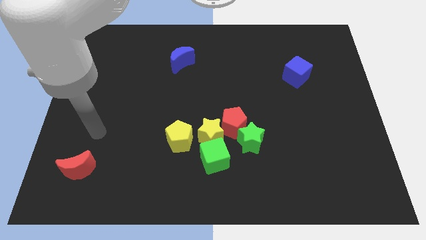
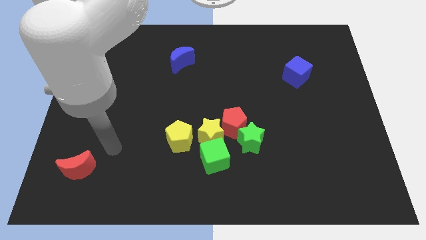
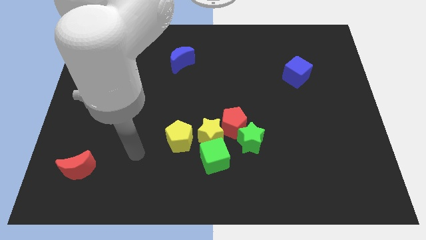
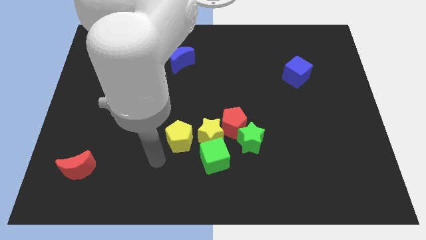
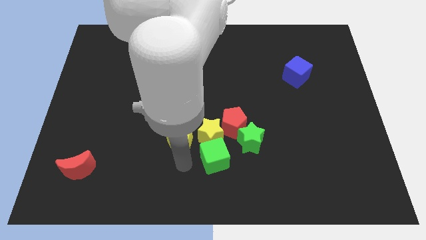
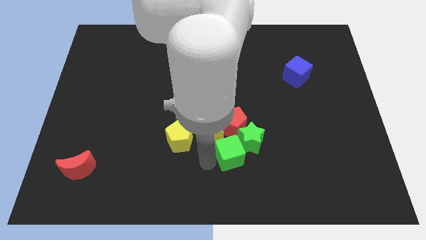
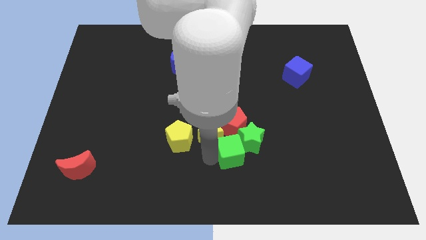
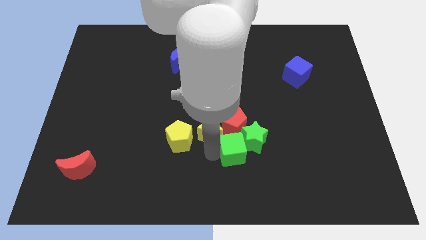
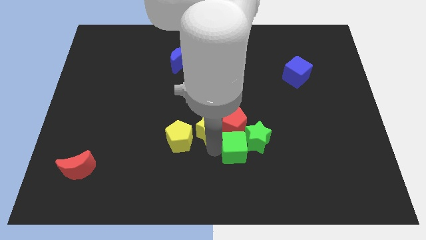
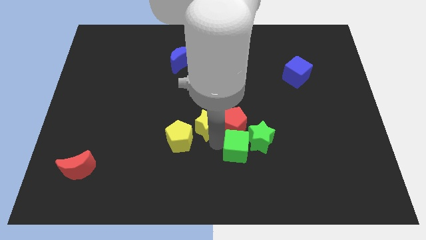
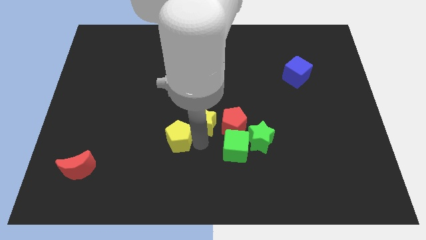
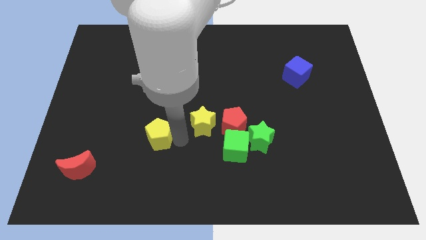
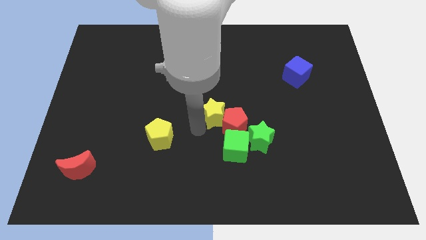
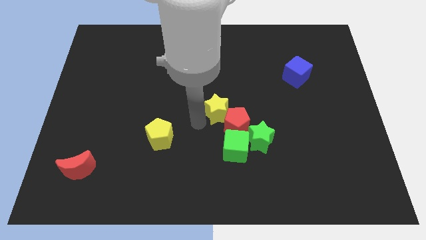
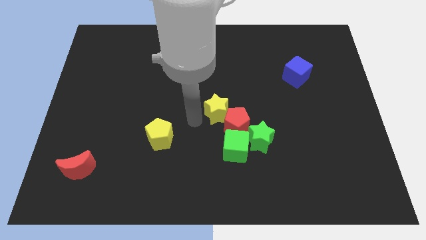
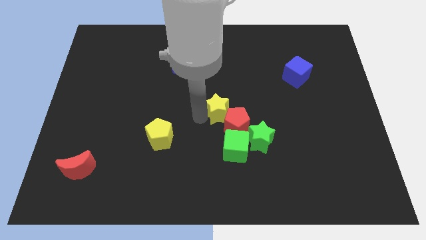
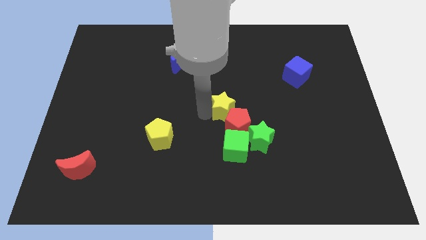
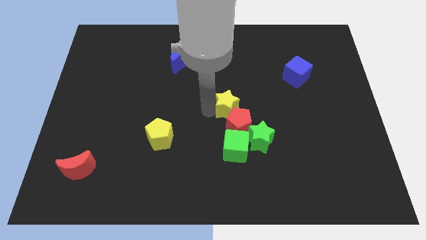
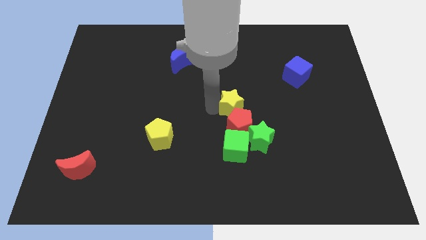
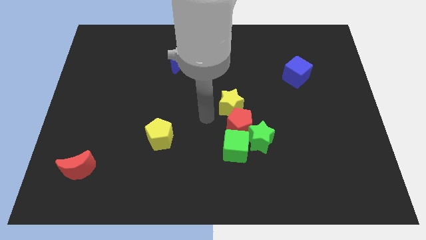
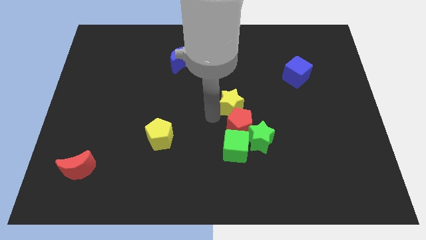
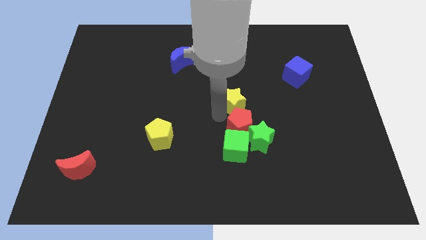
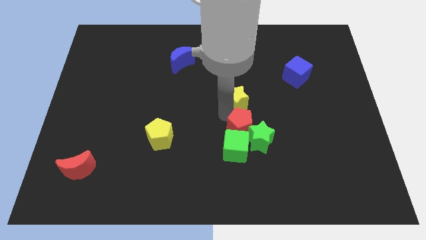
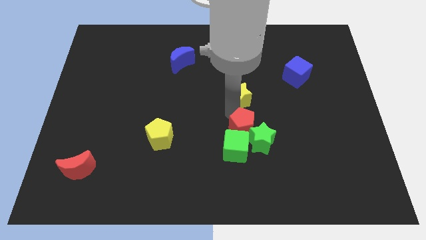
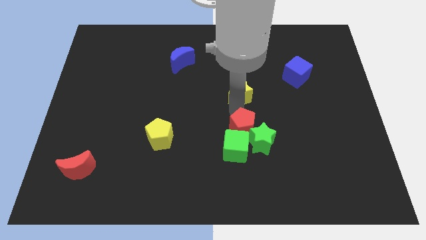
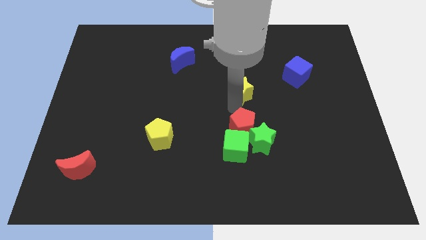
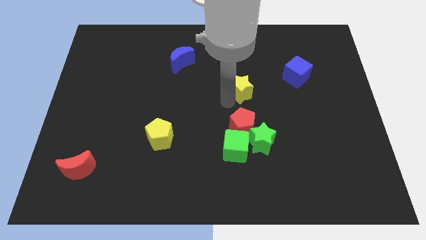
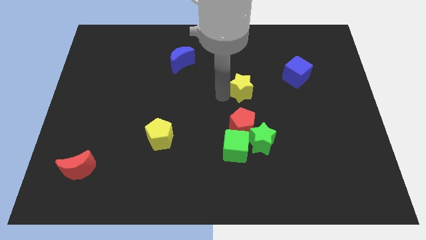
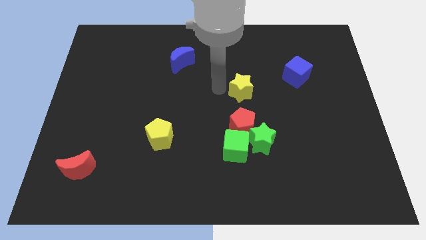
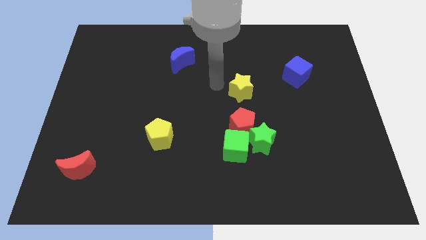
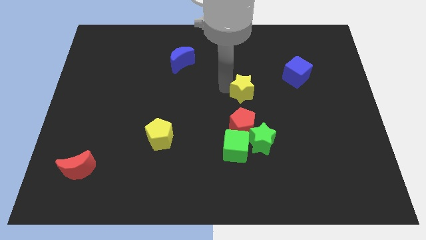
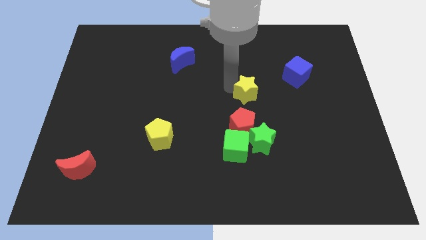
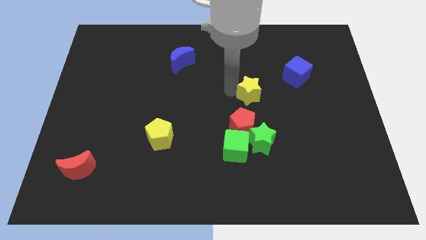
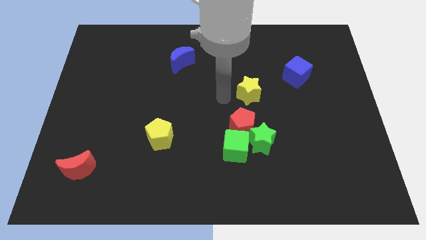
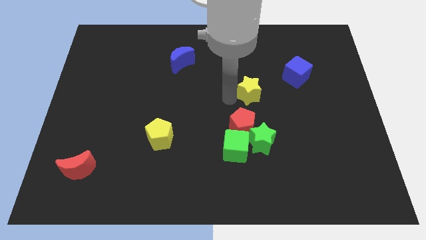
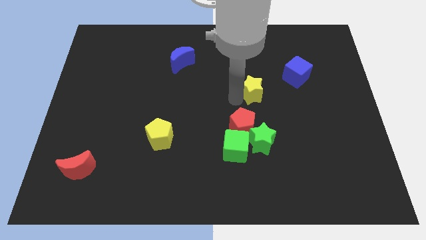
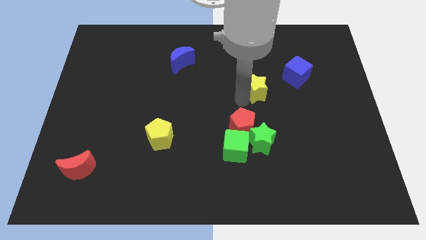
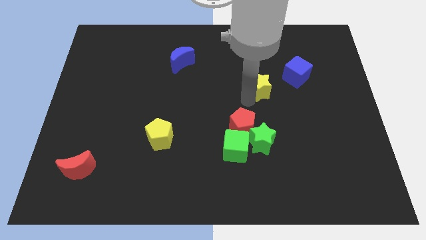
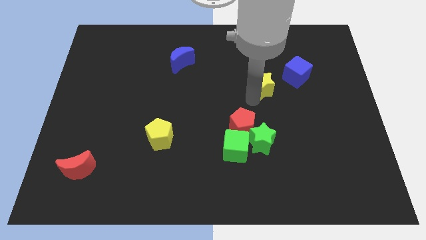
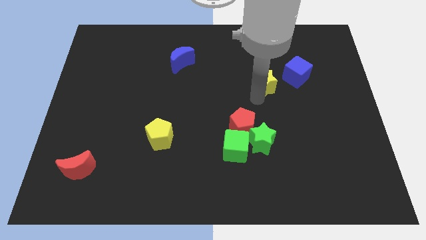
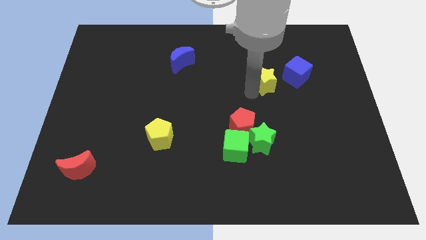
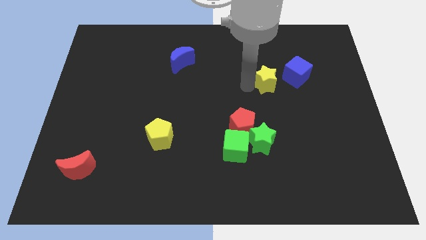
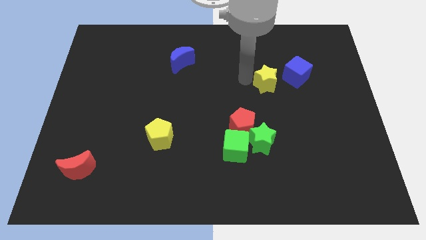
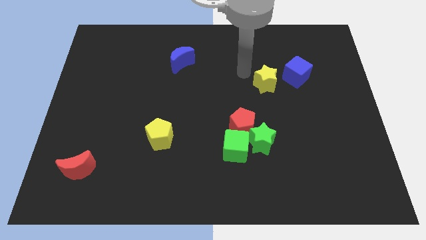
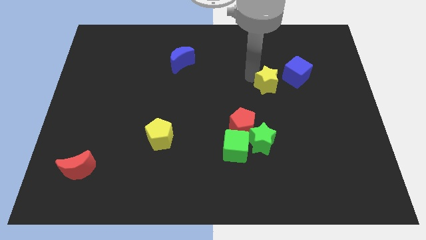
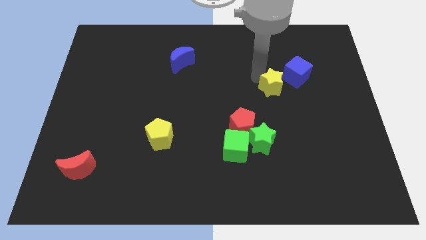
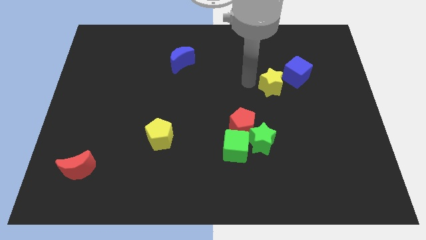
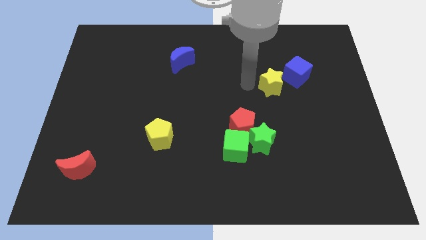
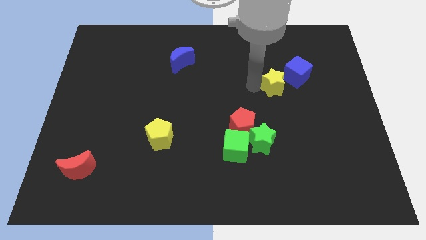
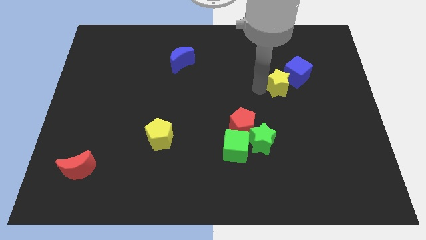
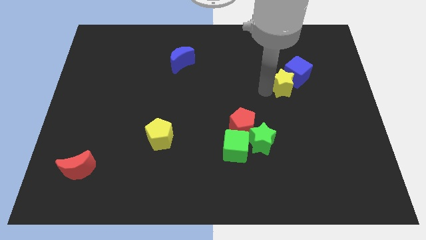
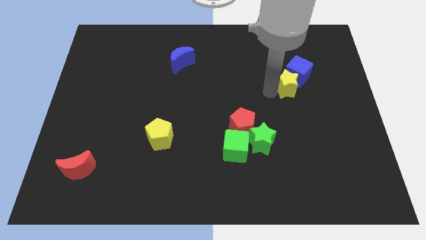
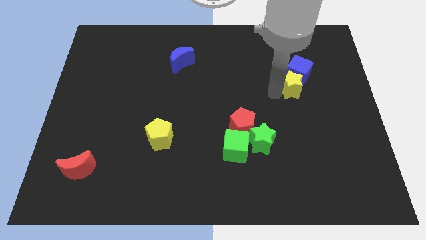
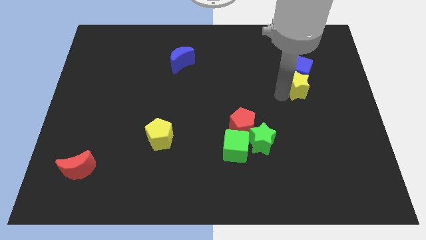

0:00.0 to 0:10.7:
push the yellow star to the bottom right side of the blue cube

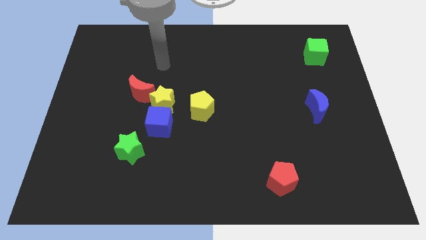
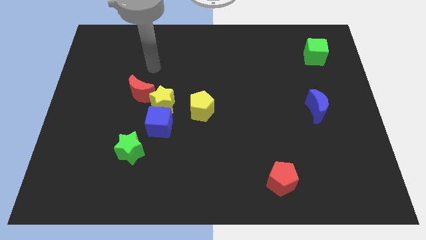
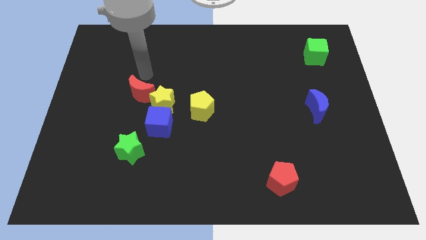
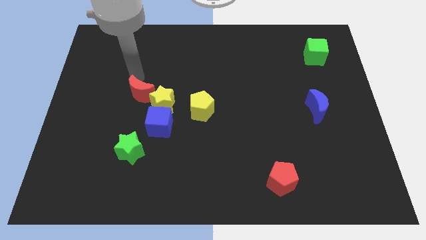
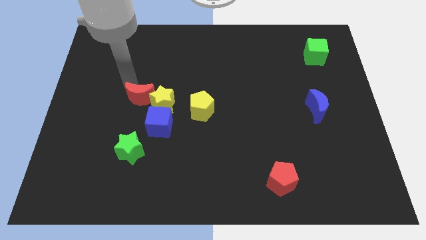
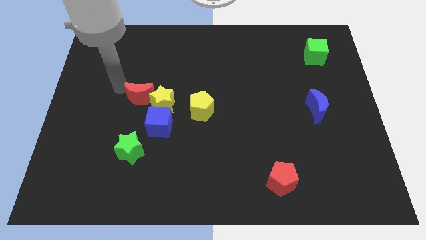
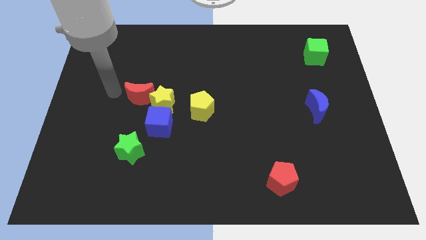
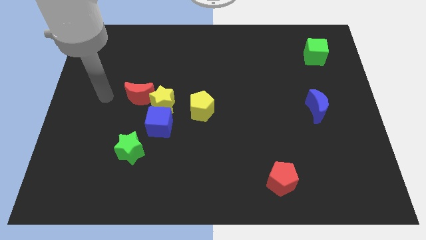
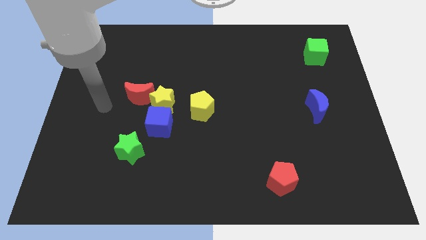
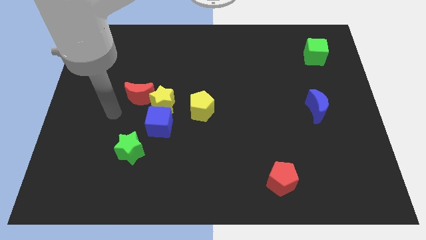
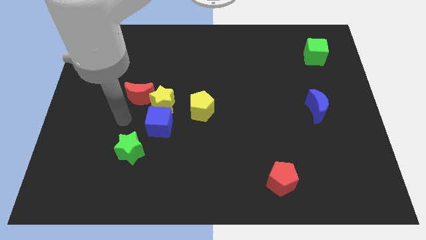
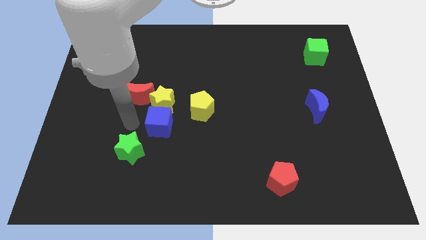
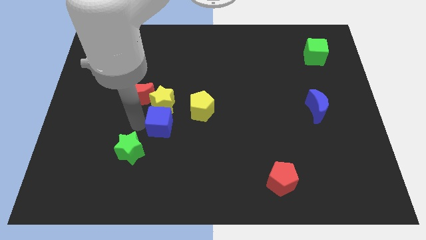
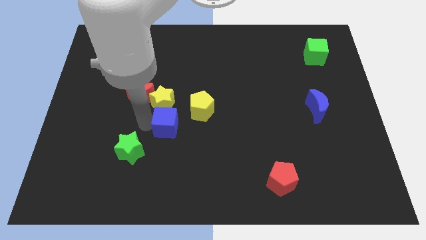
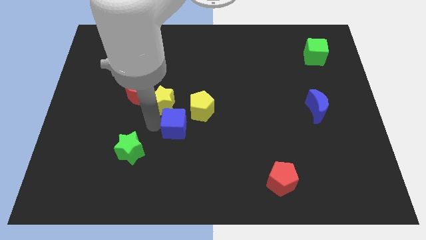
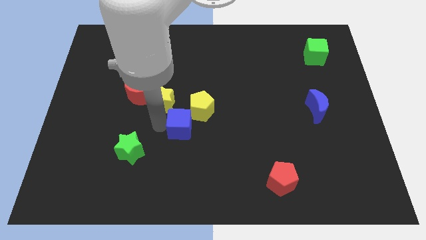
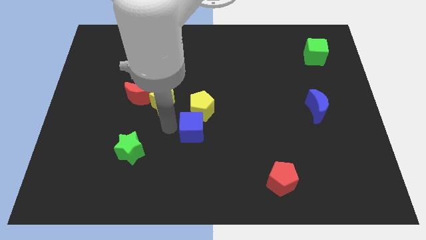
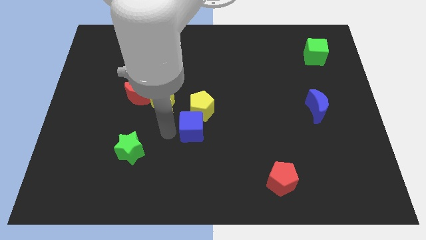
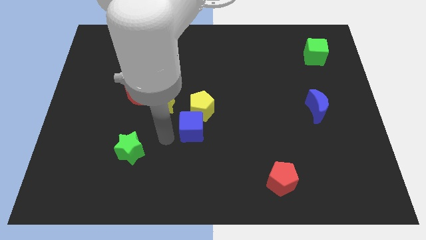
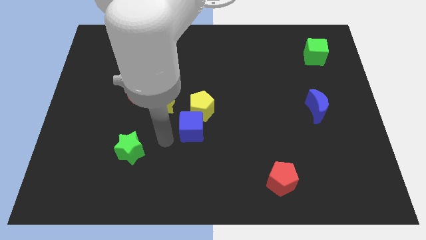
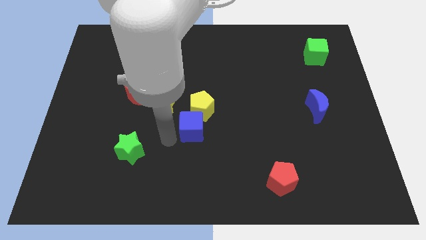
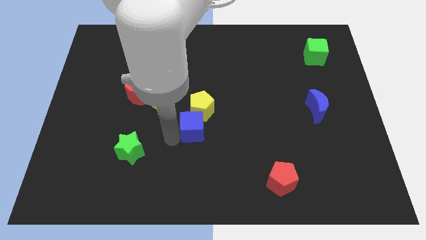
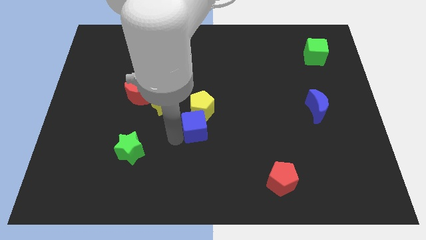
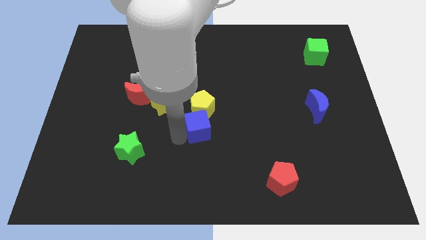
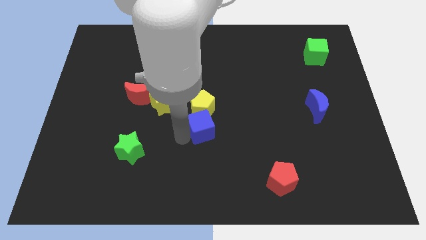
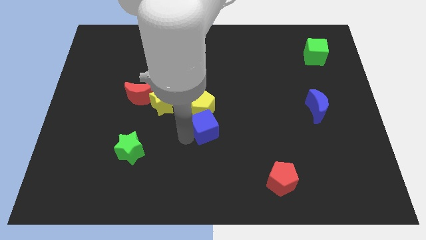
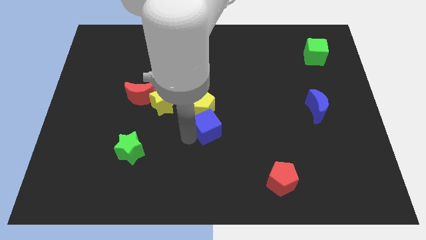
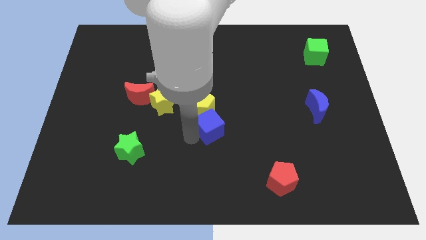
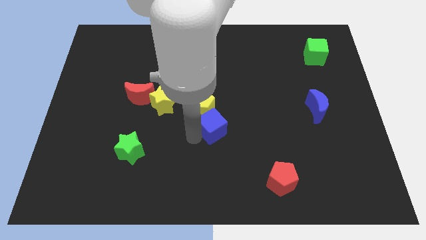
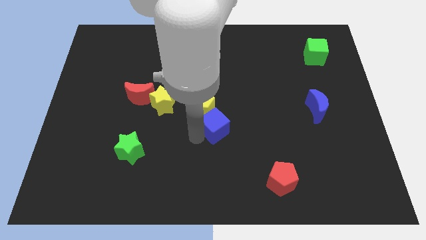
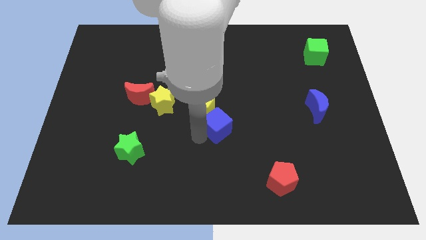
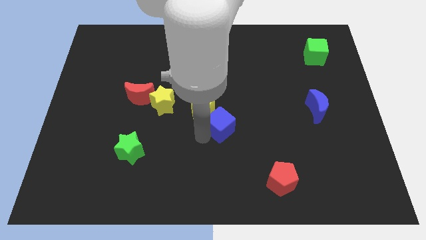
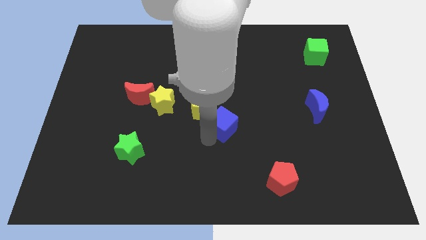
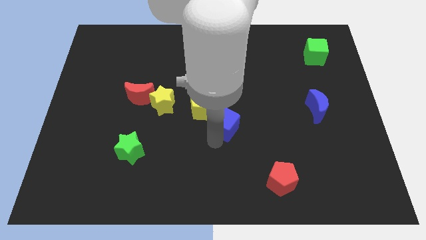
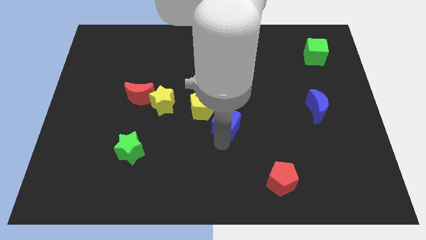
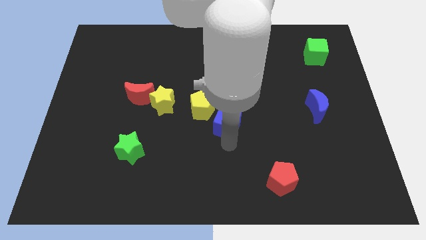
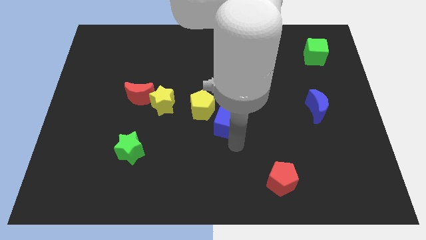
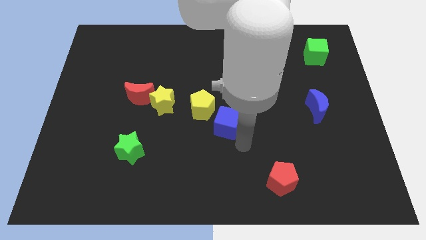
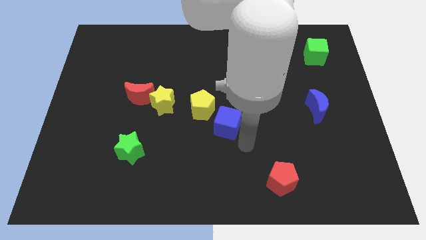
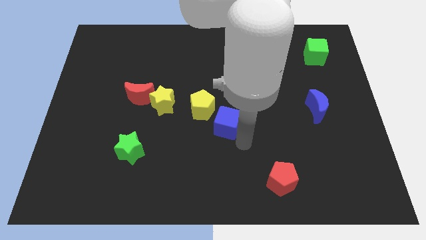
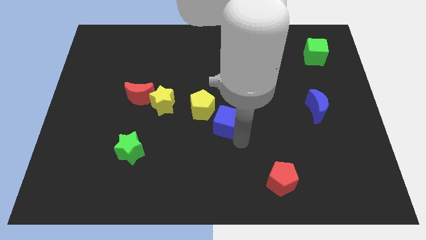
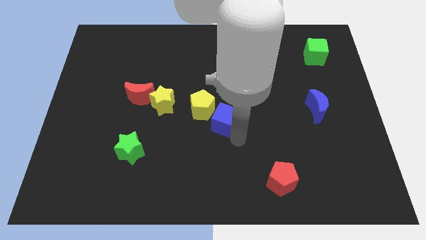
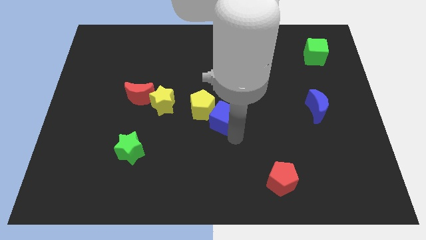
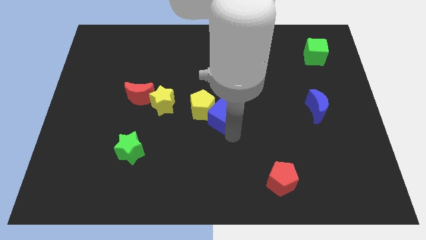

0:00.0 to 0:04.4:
push the blue cube just right of the yellow star
